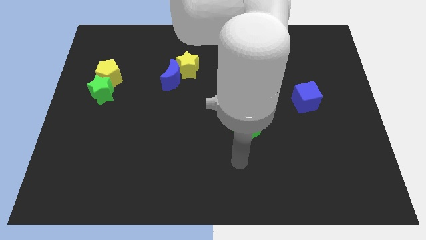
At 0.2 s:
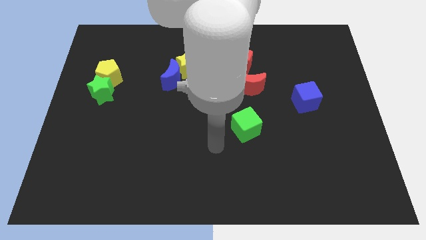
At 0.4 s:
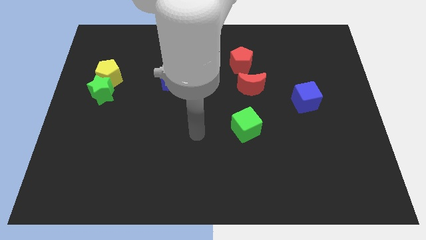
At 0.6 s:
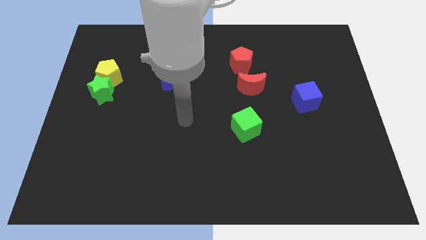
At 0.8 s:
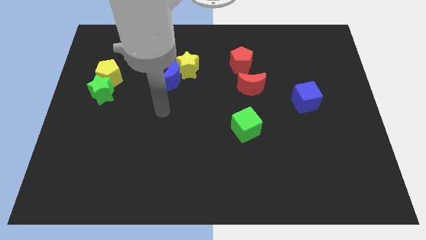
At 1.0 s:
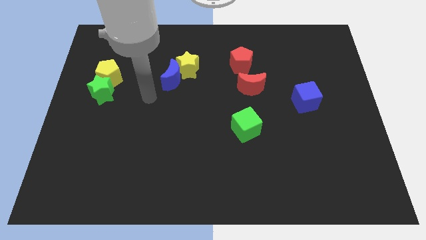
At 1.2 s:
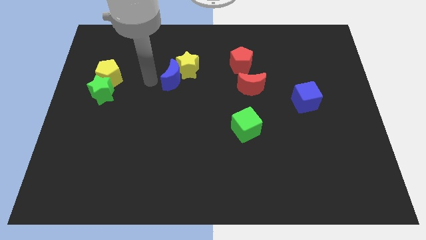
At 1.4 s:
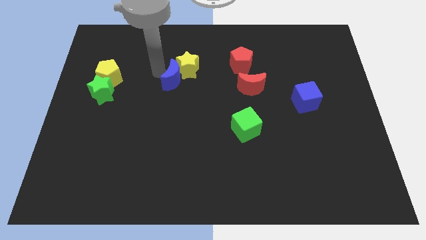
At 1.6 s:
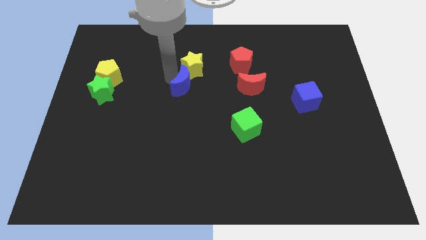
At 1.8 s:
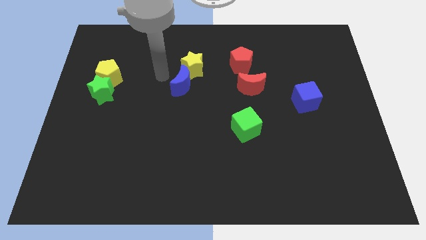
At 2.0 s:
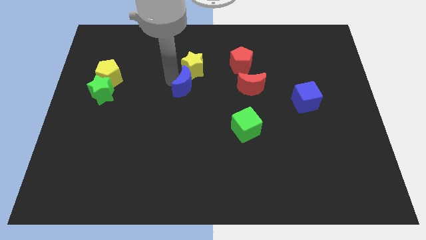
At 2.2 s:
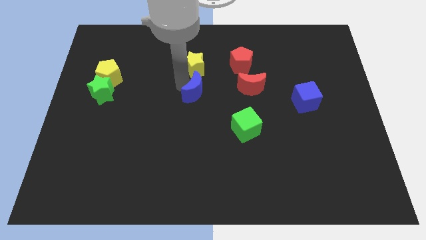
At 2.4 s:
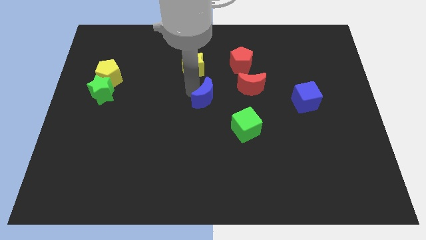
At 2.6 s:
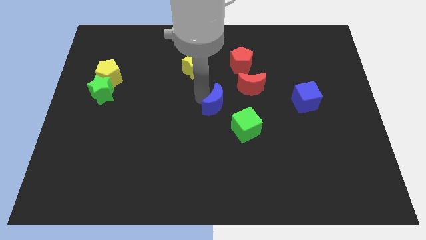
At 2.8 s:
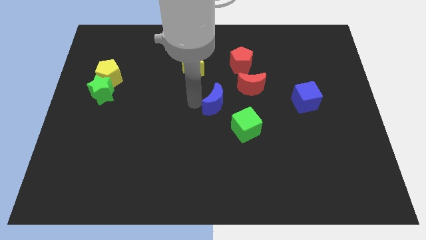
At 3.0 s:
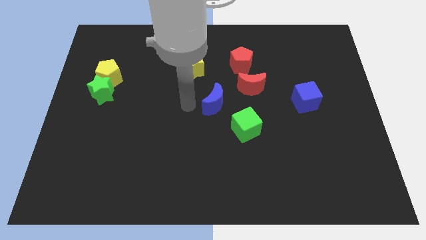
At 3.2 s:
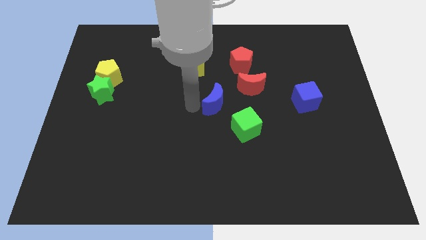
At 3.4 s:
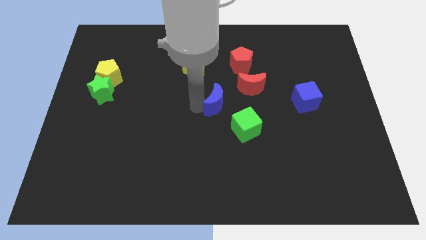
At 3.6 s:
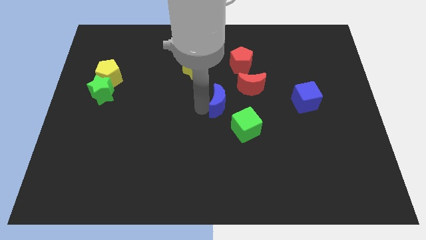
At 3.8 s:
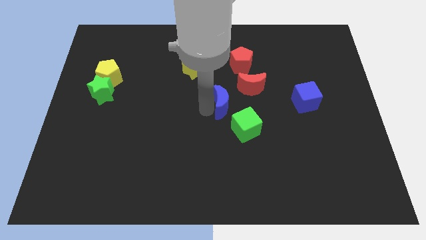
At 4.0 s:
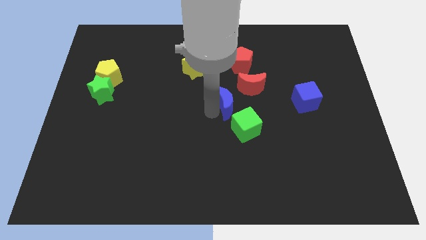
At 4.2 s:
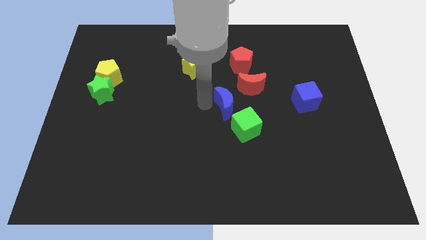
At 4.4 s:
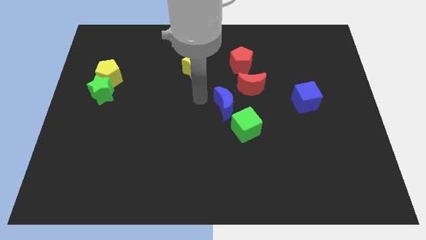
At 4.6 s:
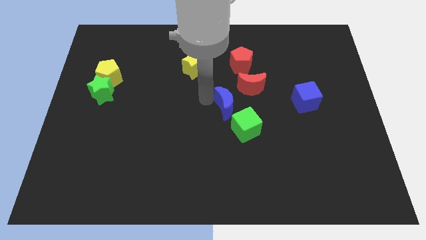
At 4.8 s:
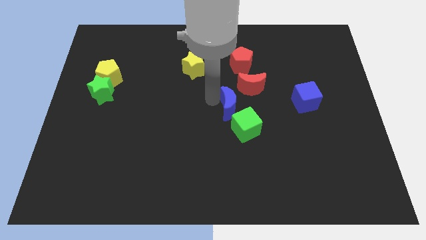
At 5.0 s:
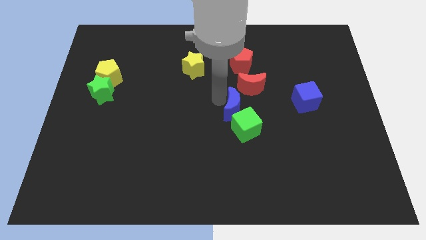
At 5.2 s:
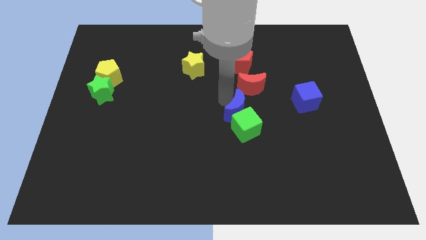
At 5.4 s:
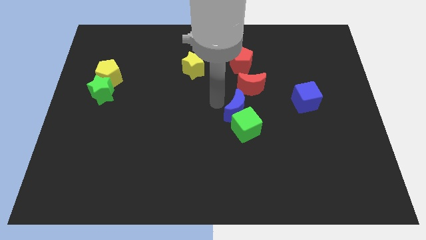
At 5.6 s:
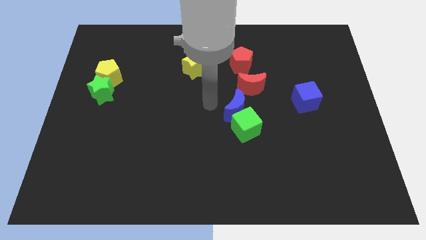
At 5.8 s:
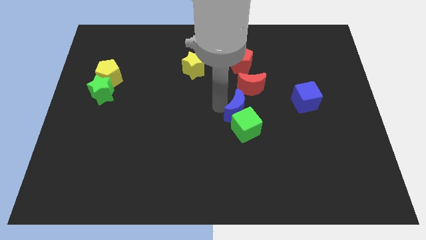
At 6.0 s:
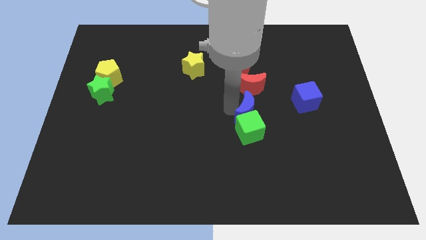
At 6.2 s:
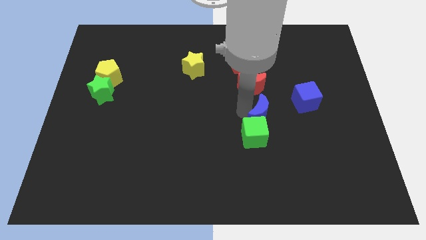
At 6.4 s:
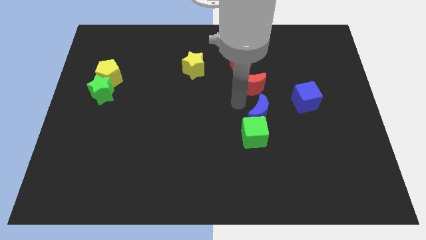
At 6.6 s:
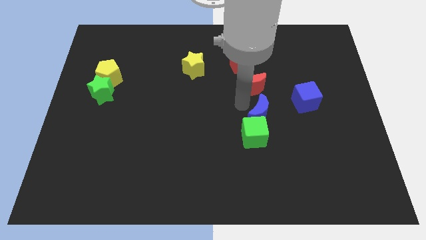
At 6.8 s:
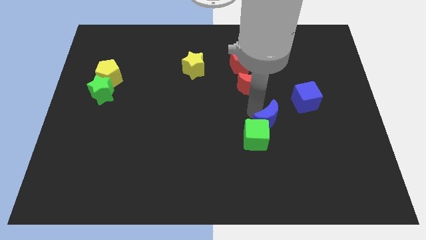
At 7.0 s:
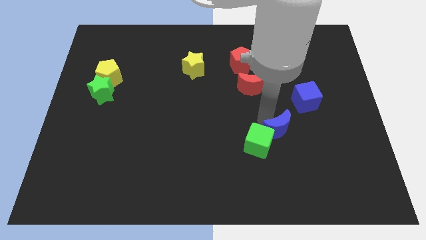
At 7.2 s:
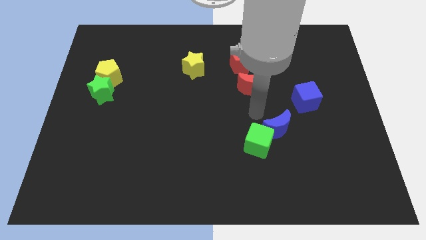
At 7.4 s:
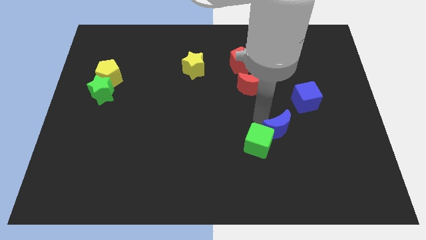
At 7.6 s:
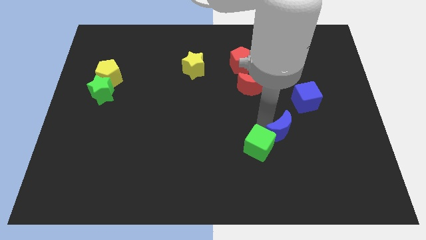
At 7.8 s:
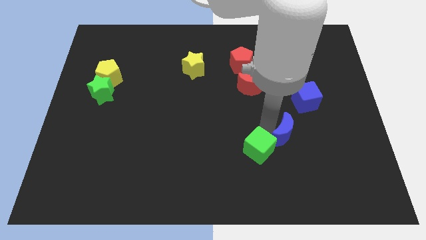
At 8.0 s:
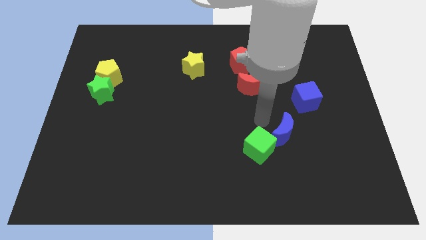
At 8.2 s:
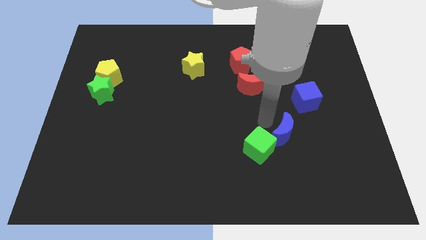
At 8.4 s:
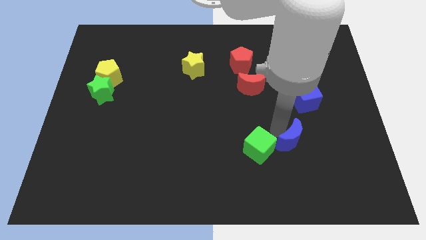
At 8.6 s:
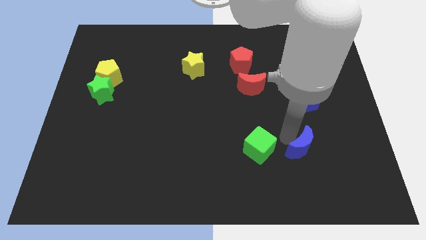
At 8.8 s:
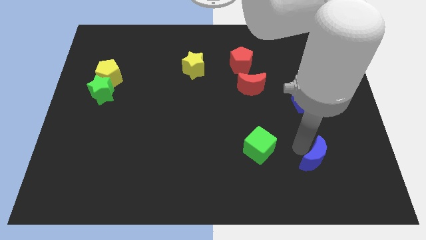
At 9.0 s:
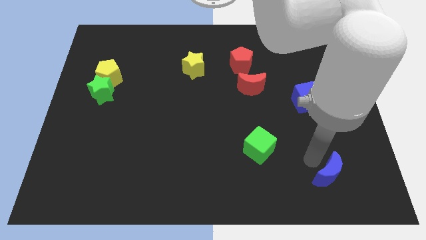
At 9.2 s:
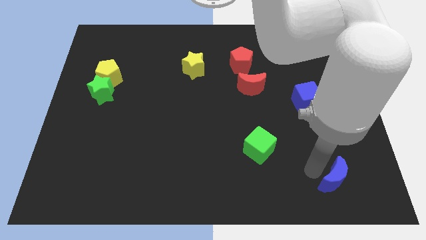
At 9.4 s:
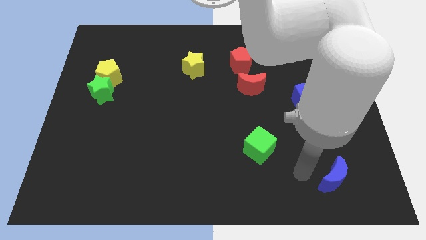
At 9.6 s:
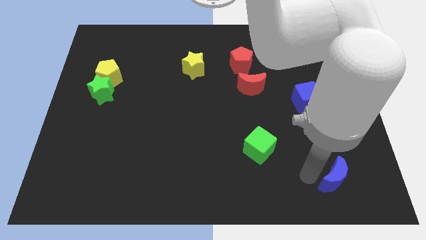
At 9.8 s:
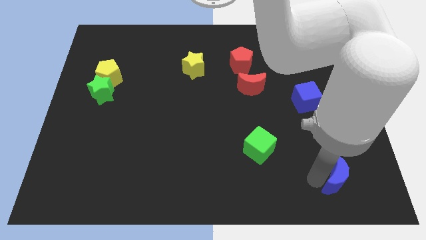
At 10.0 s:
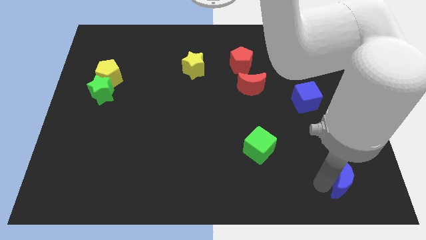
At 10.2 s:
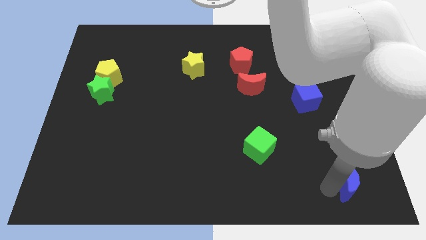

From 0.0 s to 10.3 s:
put the blue moon to the bottom right of the board

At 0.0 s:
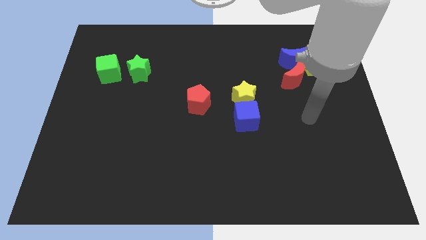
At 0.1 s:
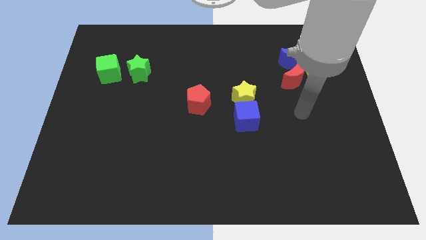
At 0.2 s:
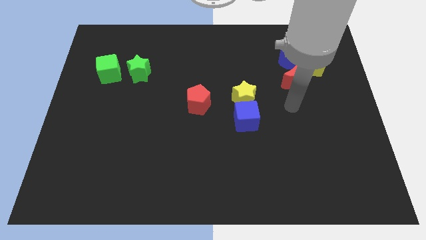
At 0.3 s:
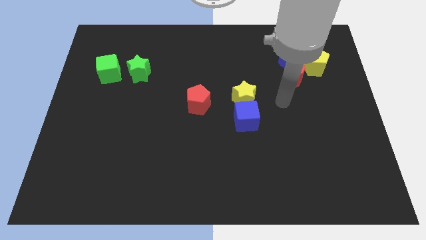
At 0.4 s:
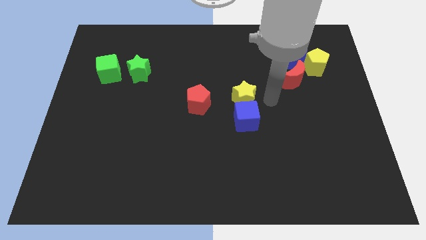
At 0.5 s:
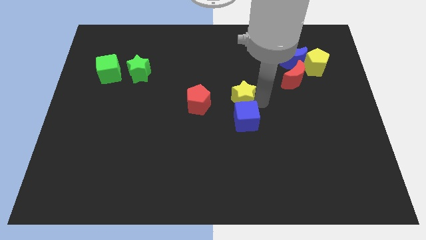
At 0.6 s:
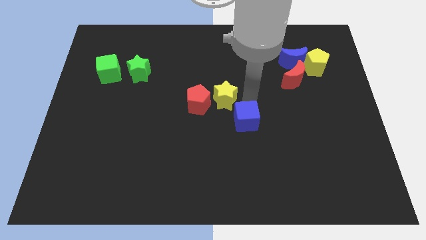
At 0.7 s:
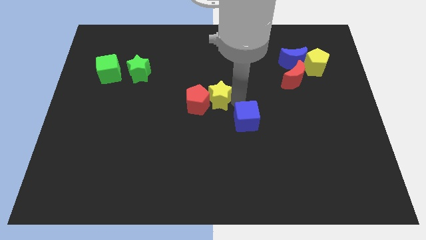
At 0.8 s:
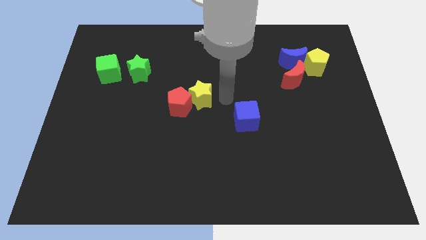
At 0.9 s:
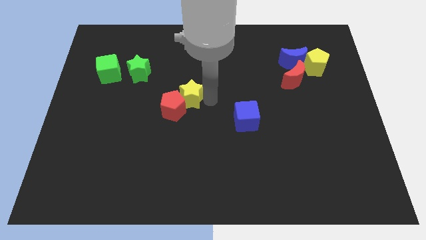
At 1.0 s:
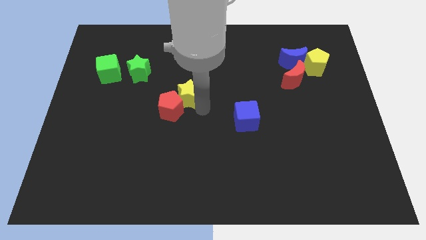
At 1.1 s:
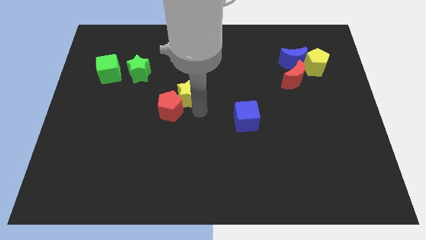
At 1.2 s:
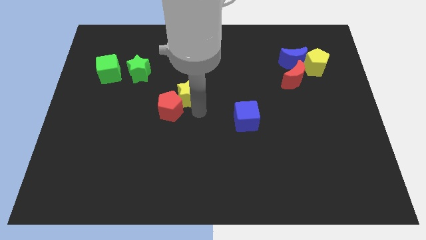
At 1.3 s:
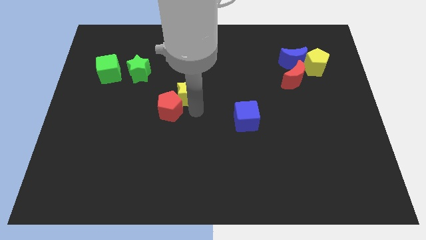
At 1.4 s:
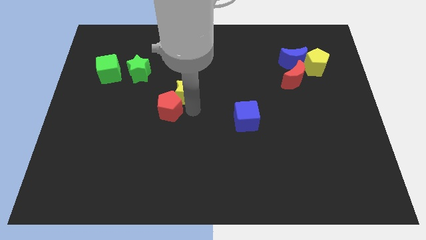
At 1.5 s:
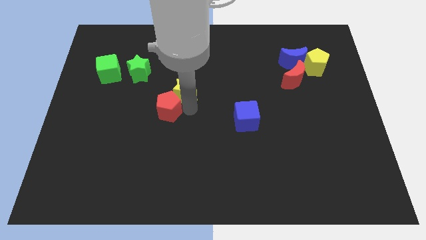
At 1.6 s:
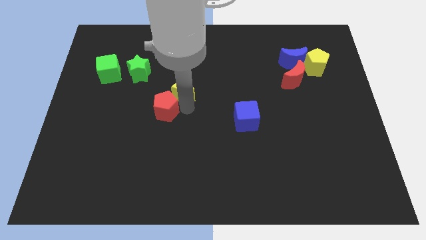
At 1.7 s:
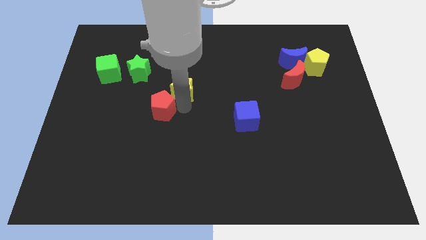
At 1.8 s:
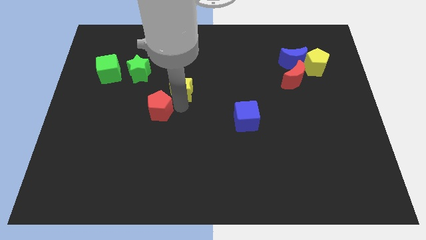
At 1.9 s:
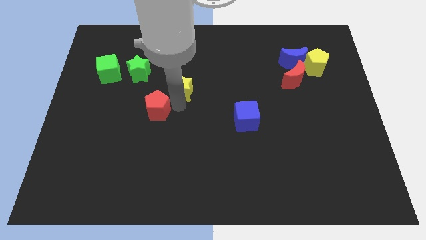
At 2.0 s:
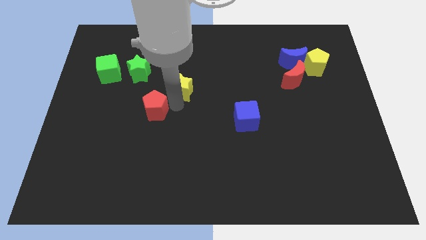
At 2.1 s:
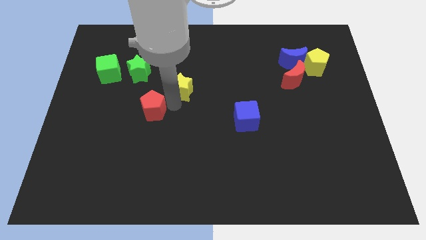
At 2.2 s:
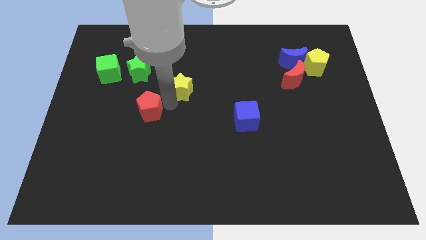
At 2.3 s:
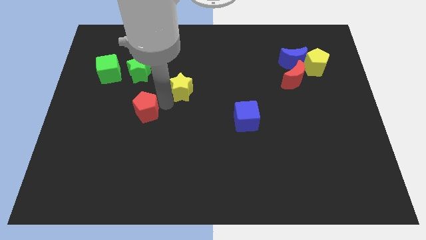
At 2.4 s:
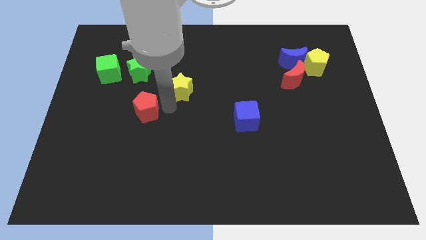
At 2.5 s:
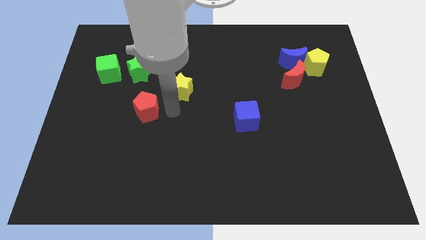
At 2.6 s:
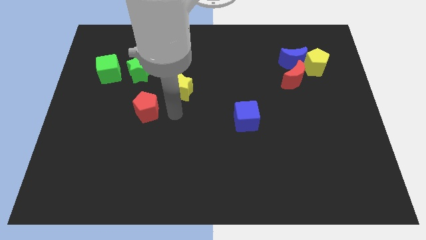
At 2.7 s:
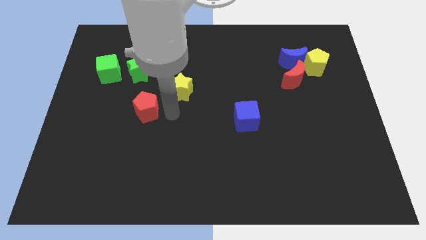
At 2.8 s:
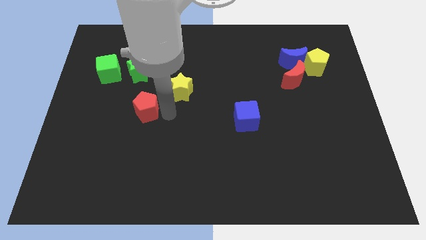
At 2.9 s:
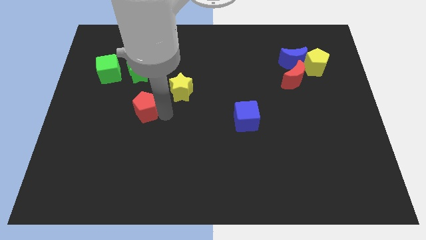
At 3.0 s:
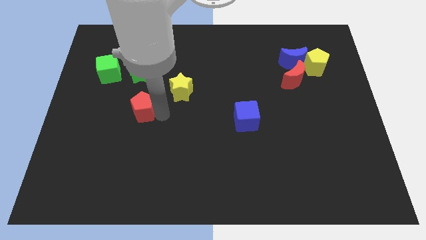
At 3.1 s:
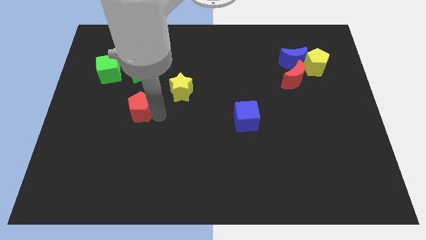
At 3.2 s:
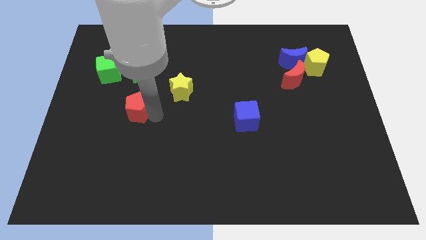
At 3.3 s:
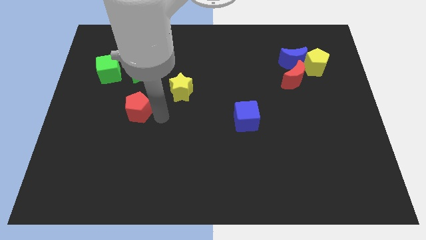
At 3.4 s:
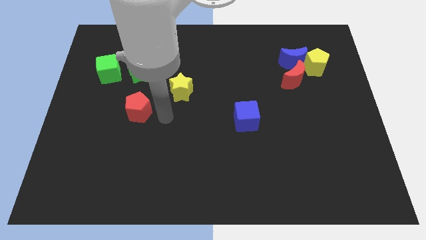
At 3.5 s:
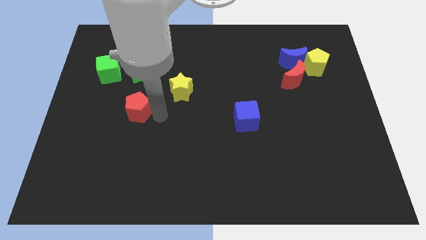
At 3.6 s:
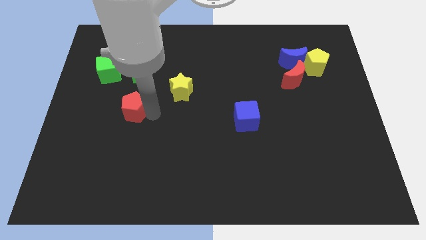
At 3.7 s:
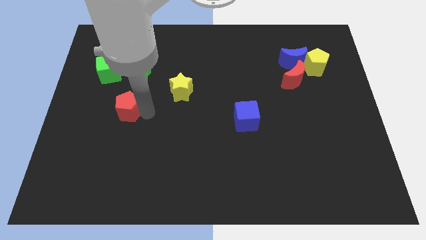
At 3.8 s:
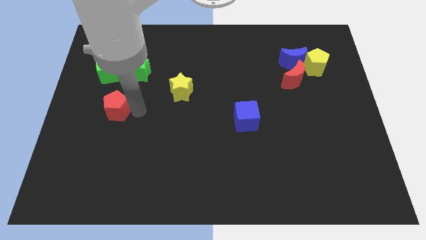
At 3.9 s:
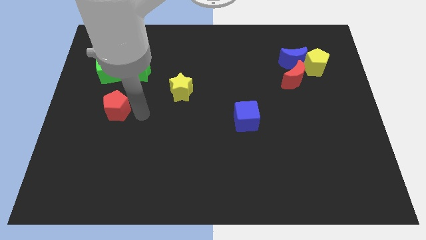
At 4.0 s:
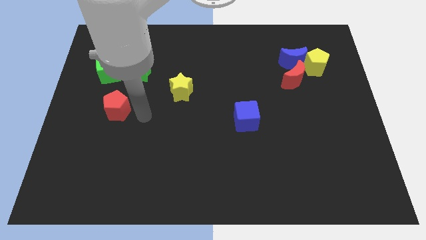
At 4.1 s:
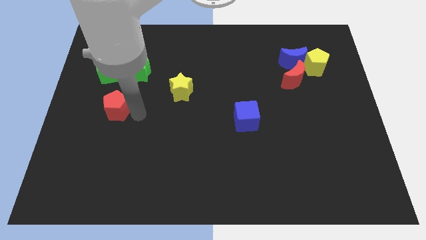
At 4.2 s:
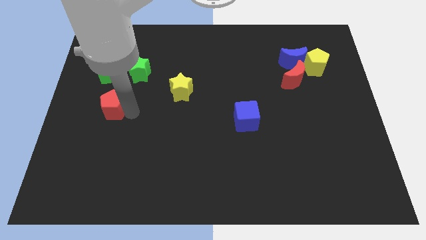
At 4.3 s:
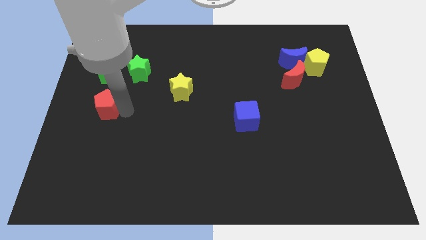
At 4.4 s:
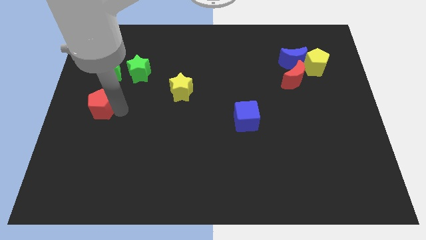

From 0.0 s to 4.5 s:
slide the red pentagon to the left side
